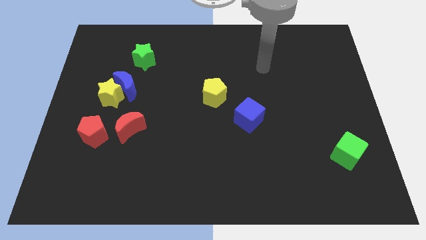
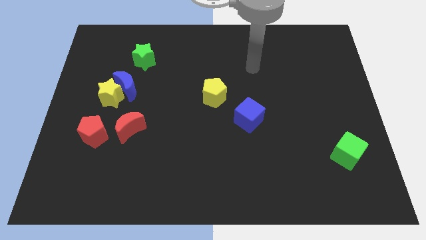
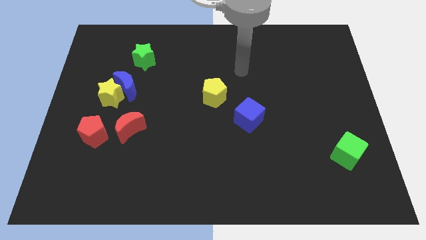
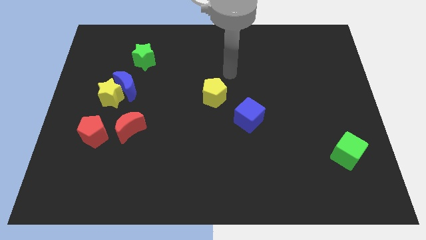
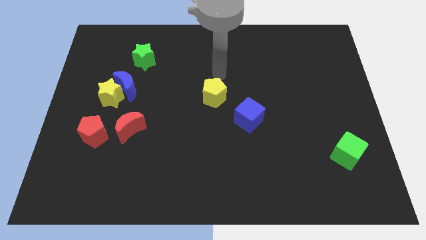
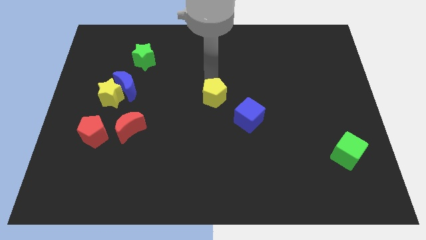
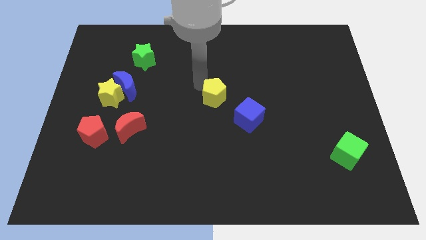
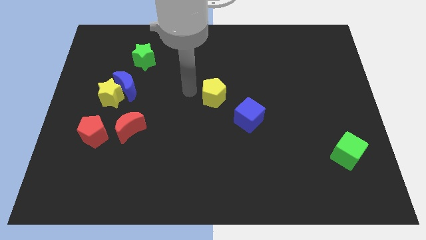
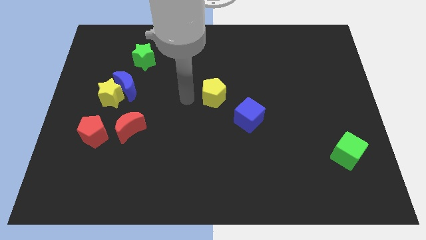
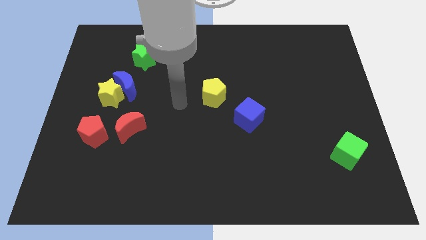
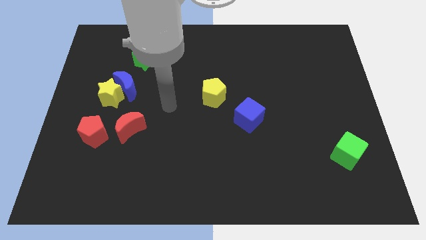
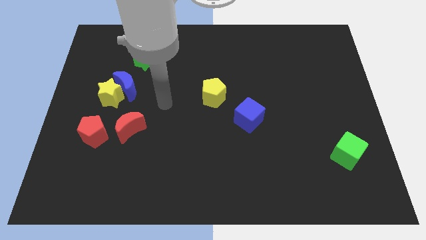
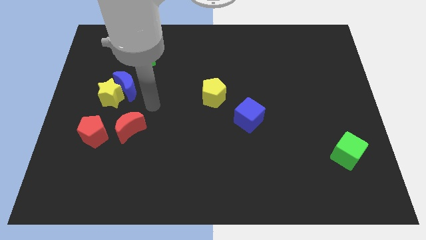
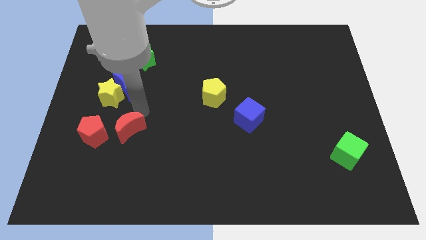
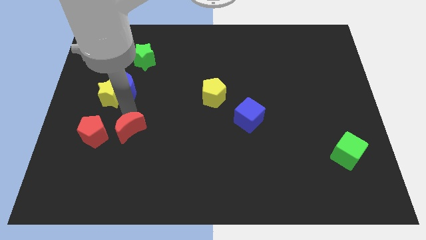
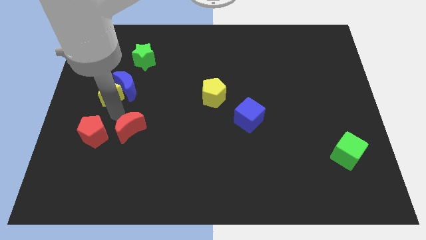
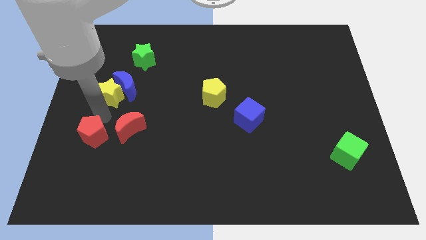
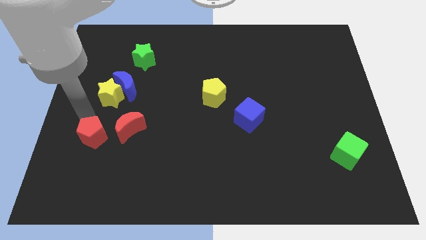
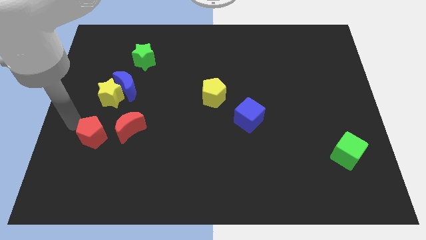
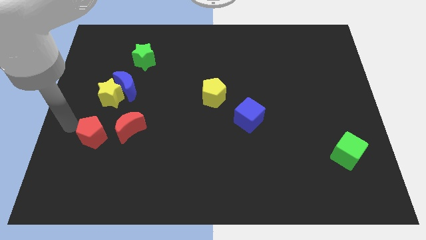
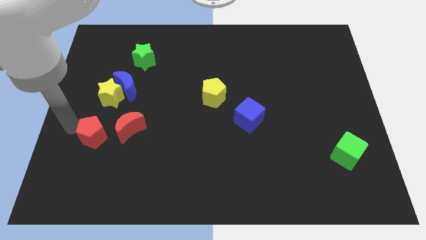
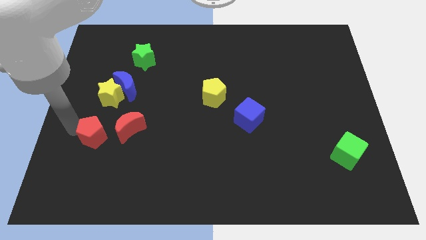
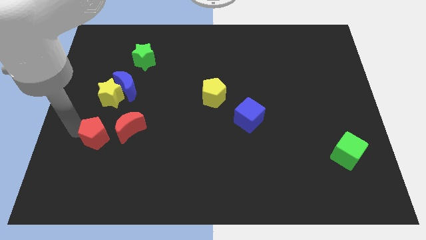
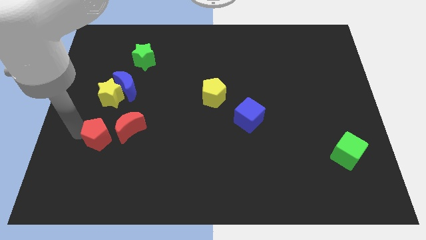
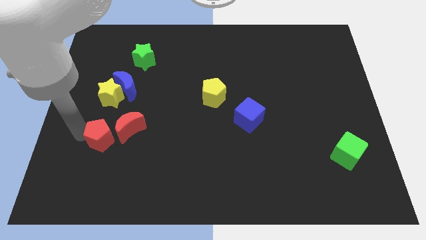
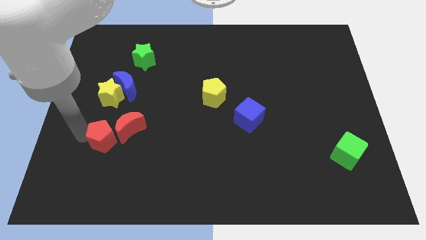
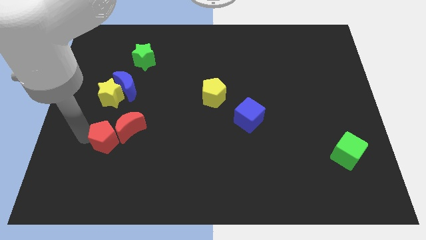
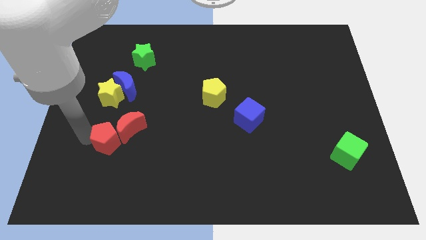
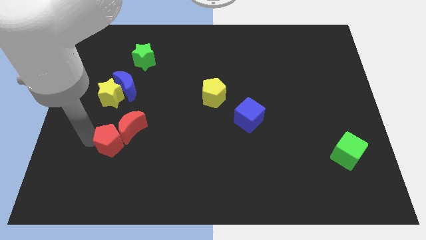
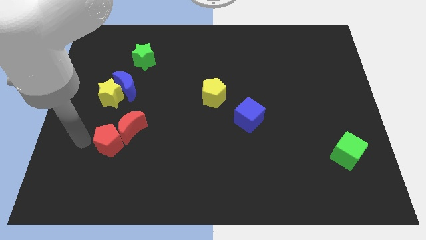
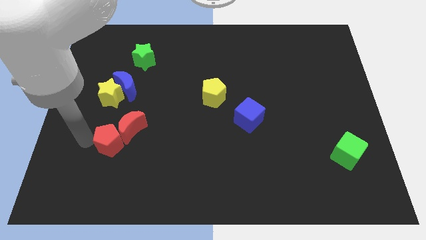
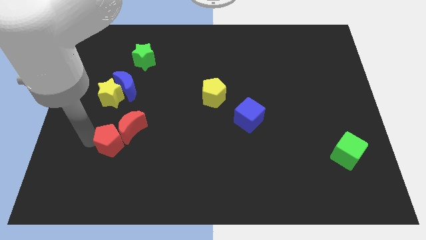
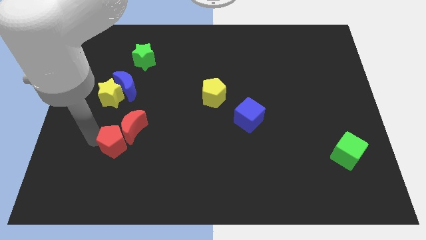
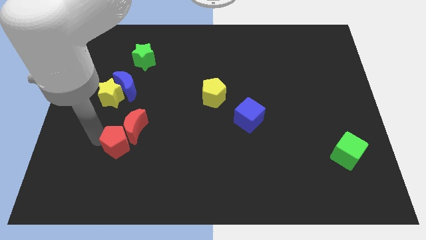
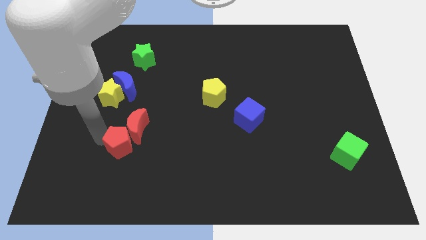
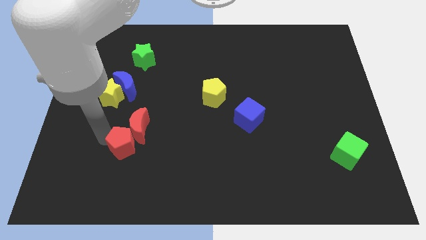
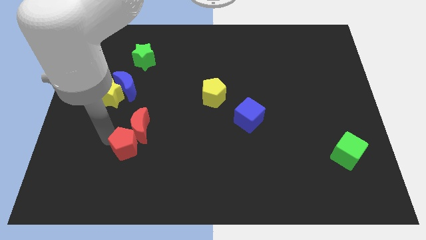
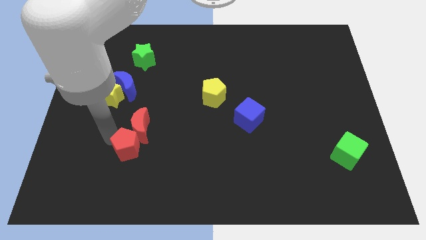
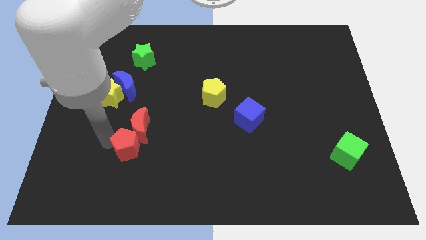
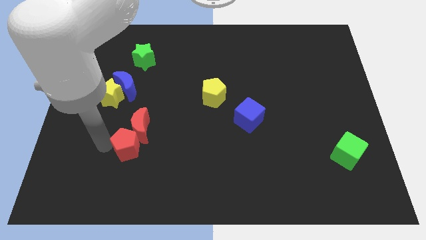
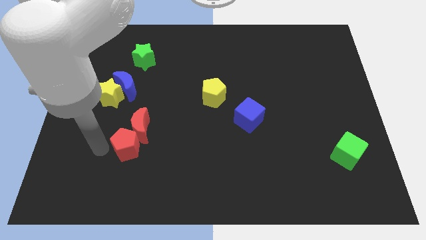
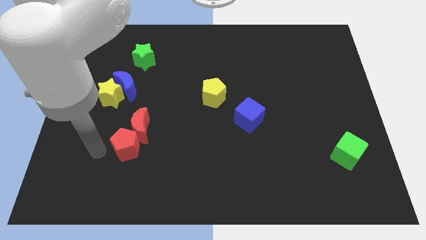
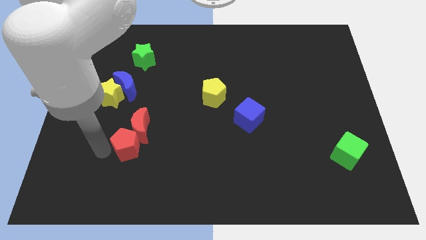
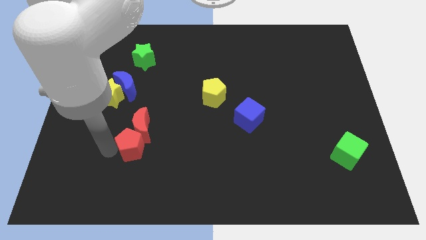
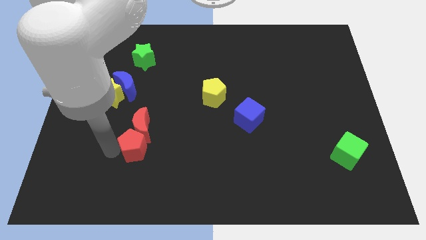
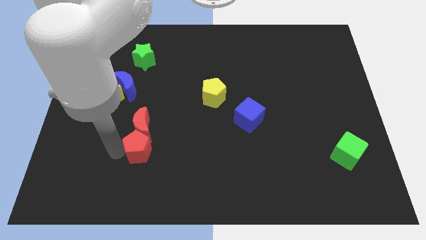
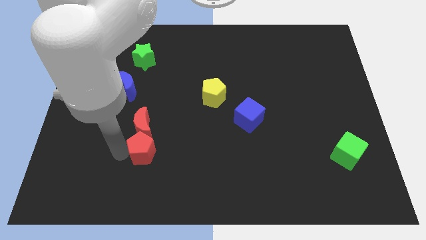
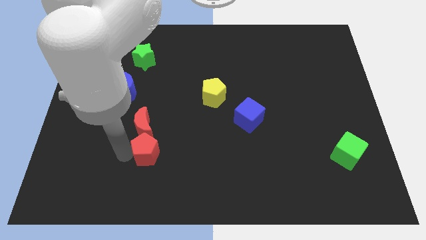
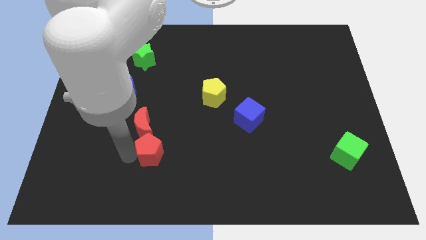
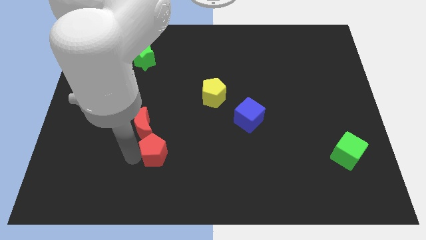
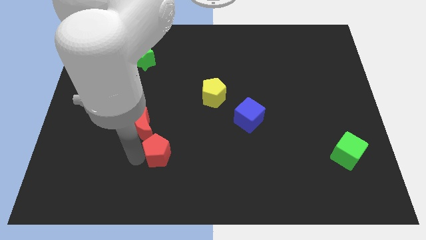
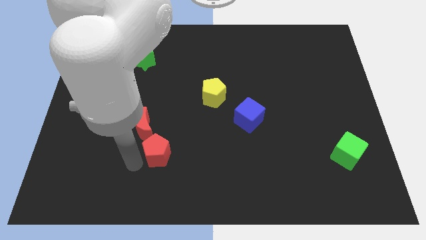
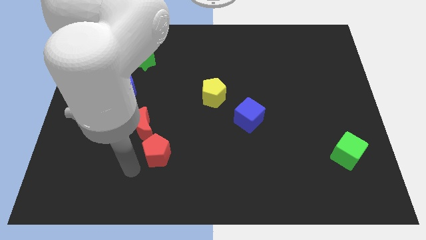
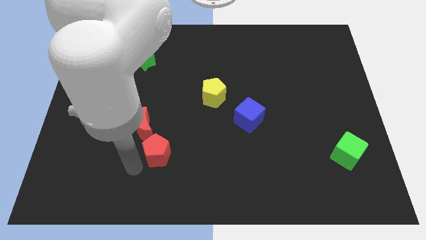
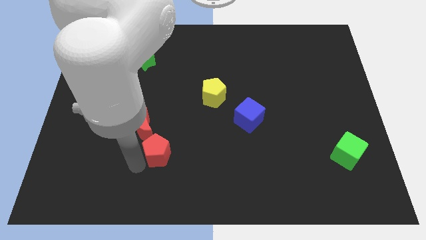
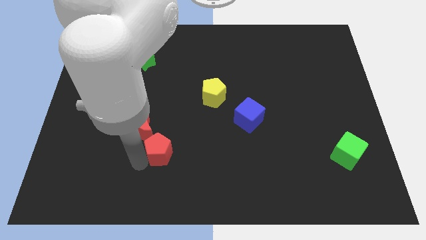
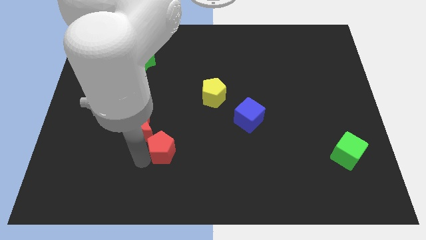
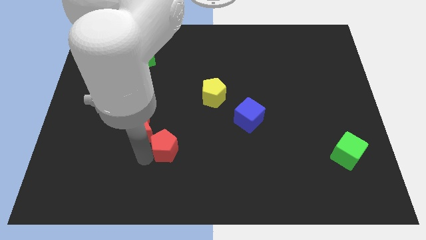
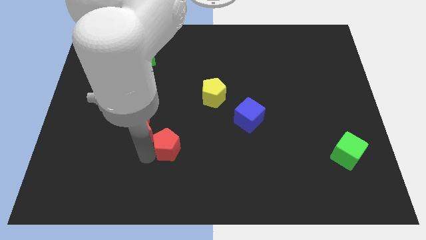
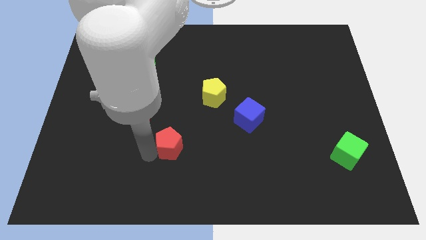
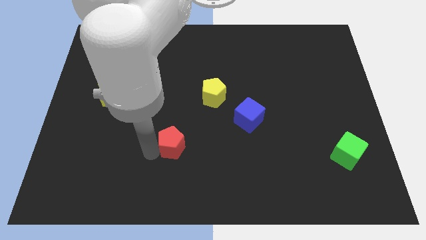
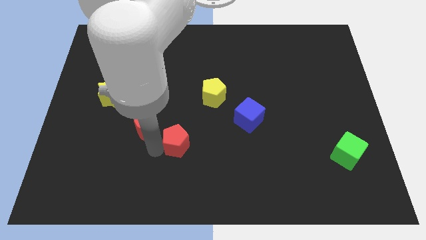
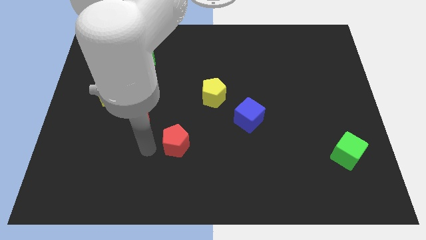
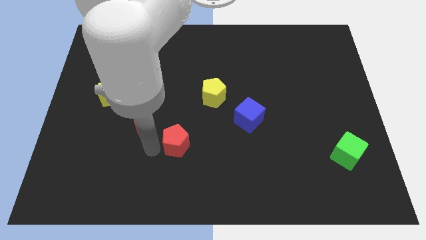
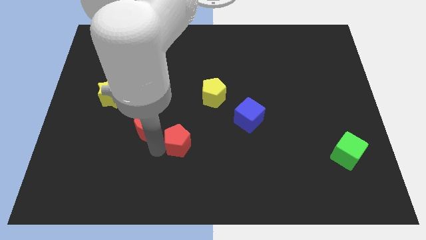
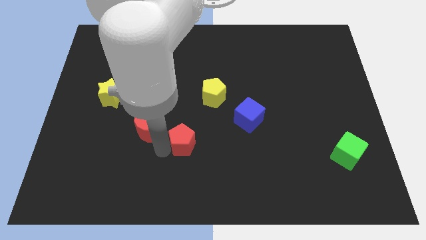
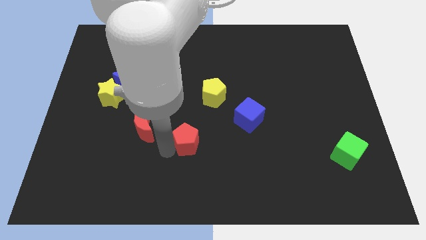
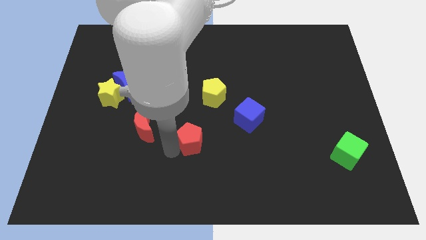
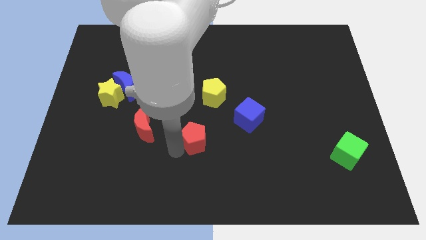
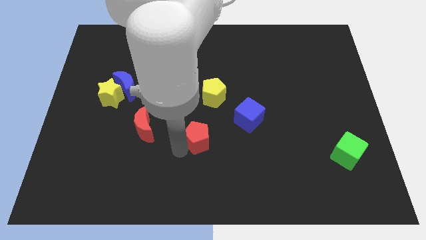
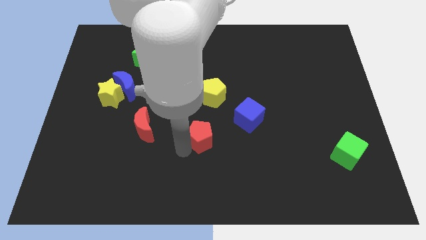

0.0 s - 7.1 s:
put the red pentagon diagonally down and to the left of the blue cube
